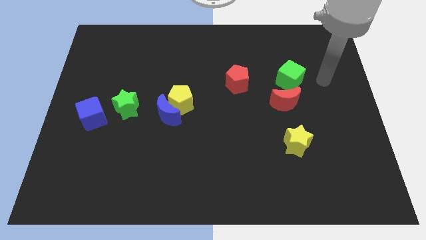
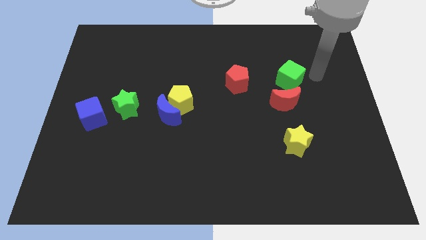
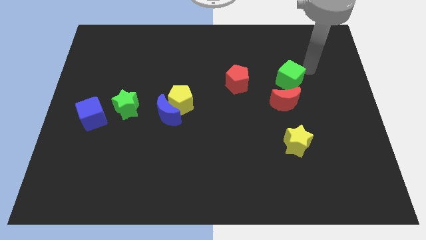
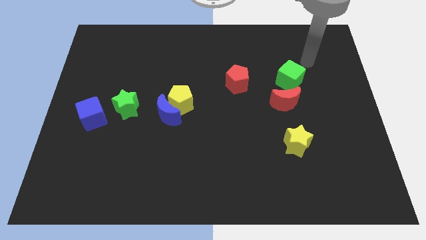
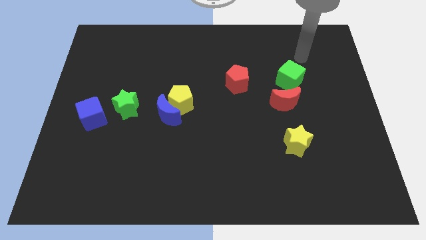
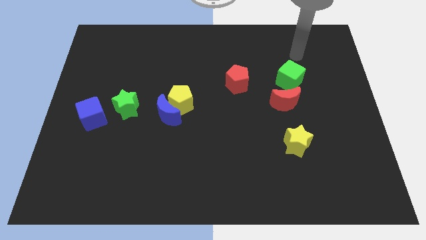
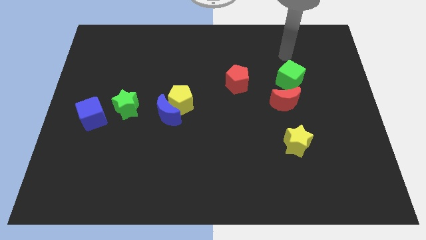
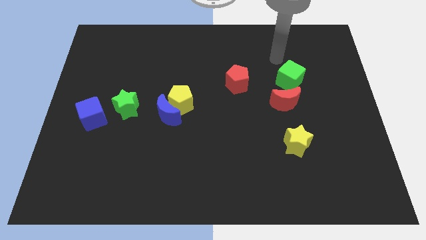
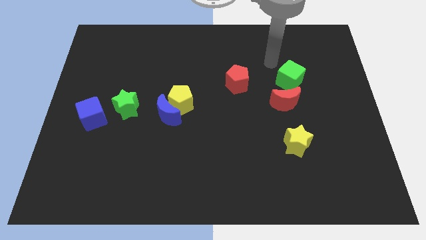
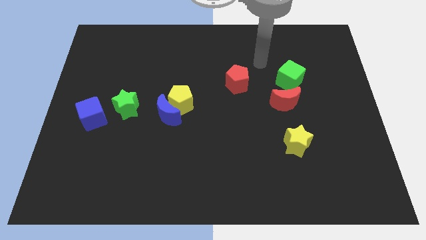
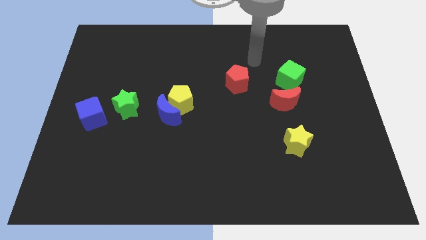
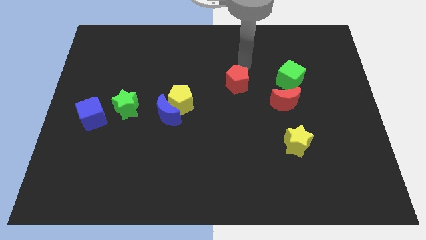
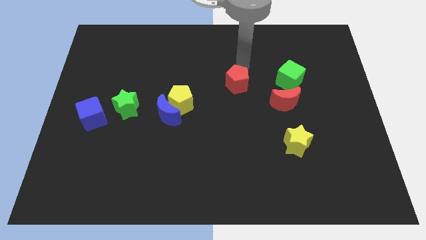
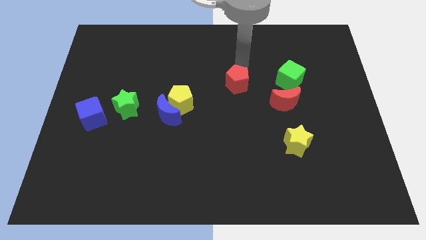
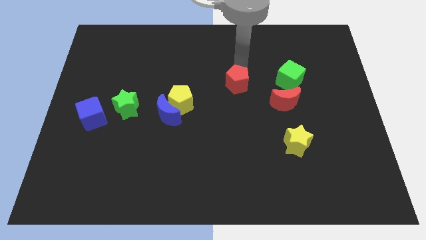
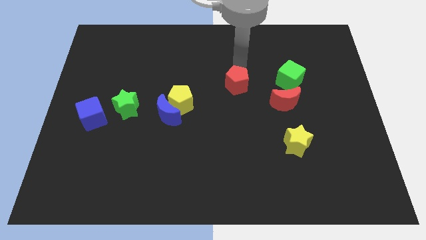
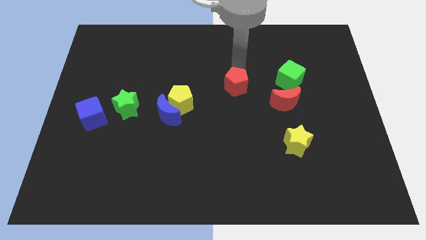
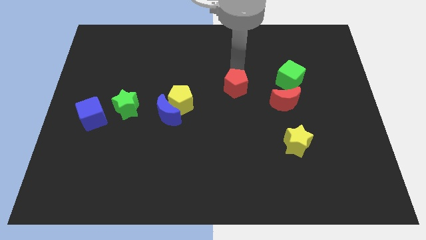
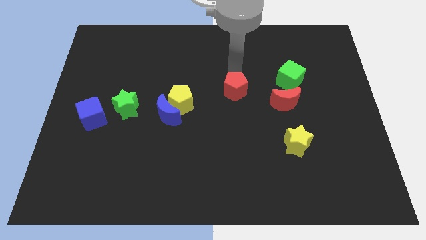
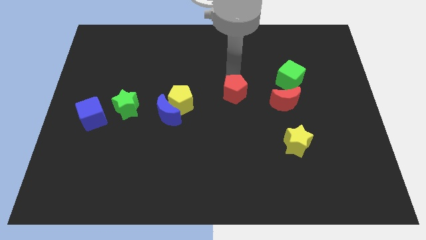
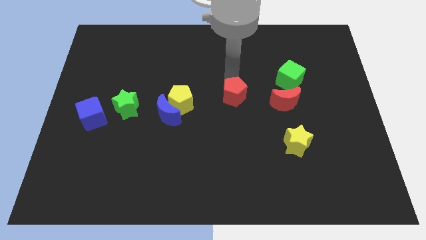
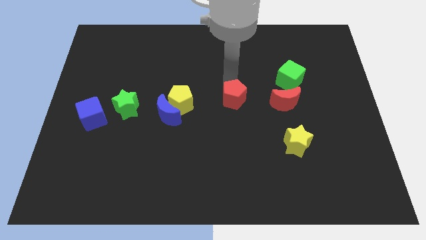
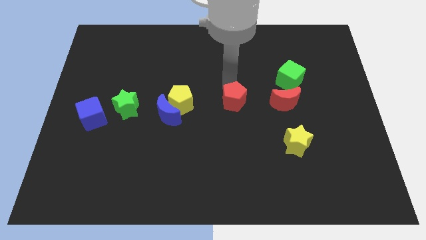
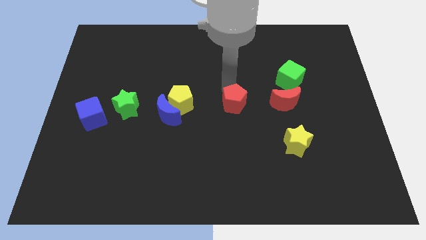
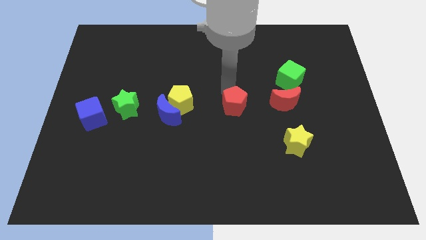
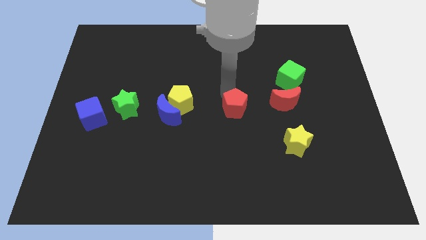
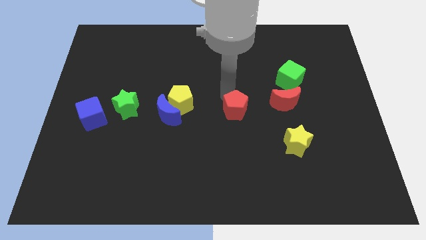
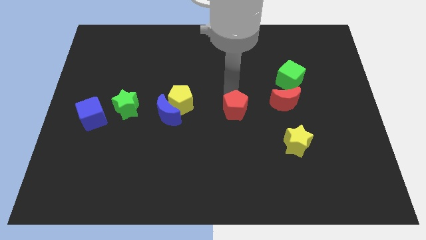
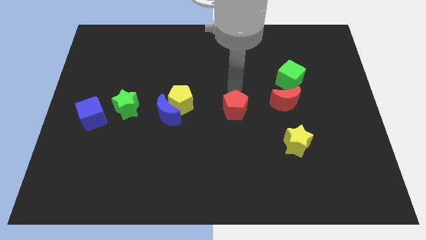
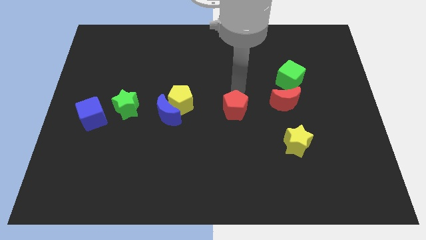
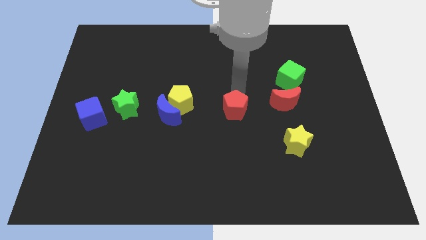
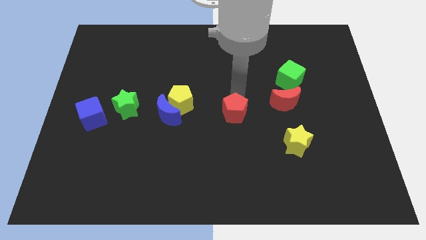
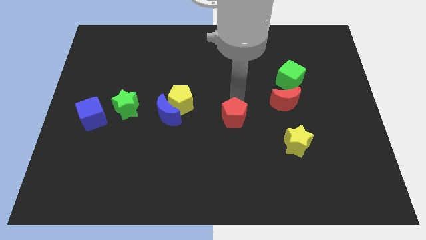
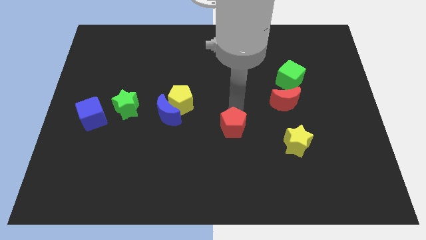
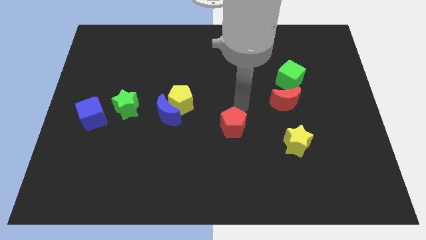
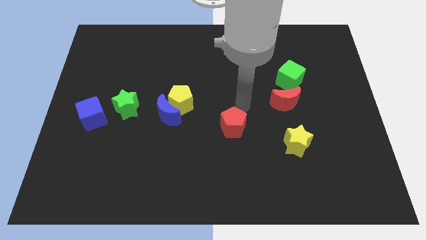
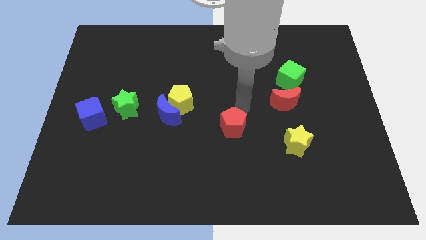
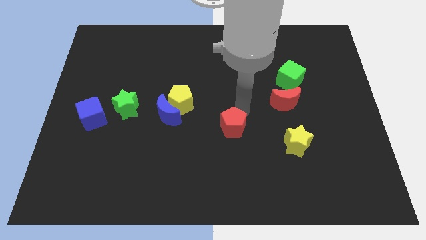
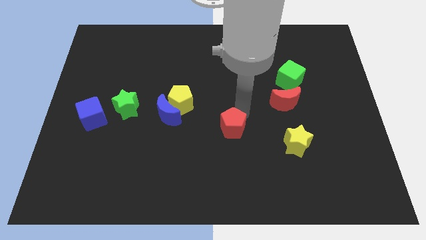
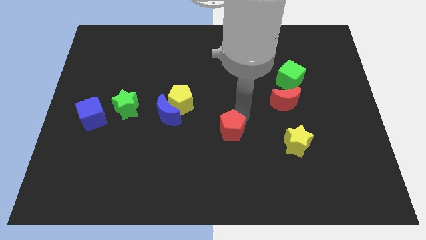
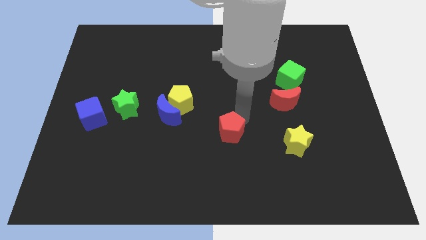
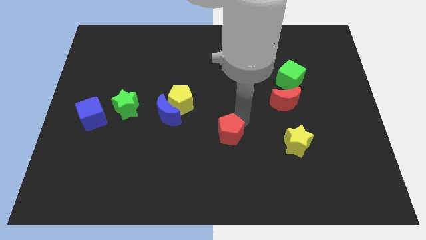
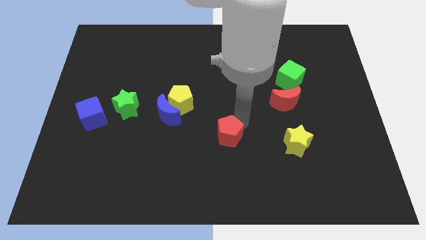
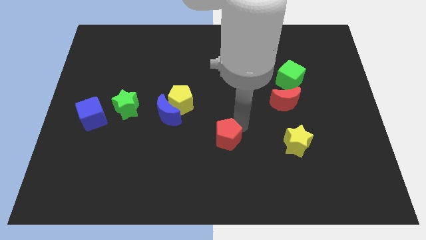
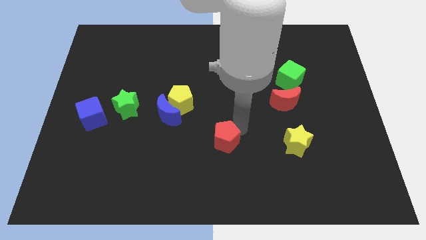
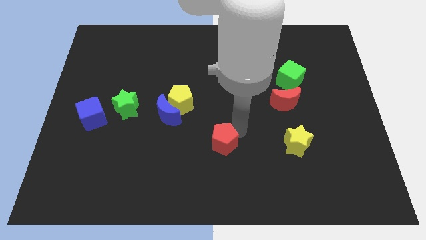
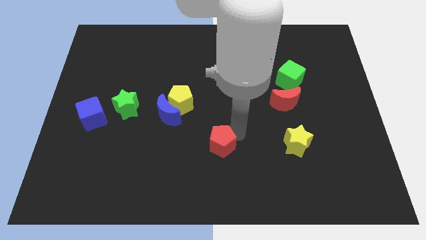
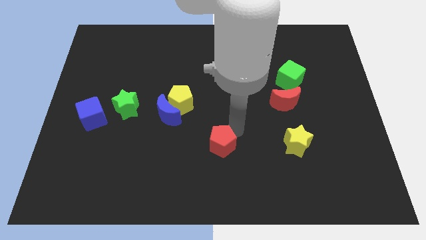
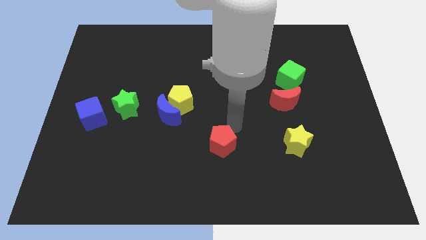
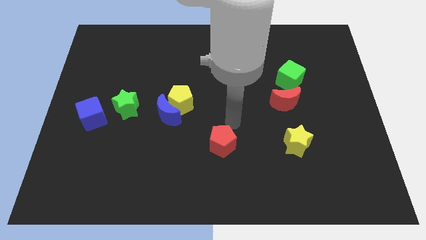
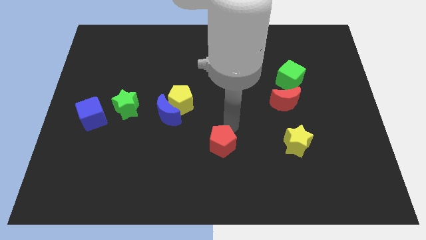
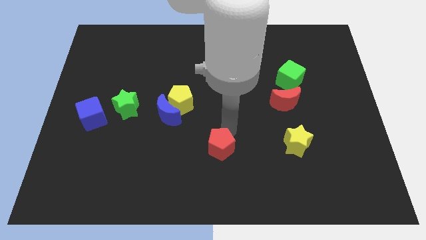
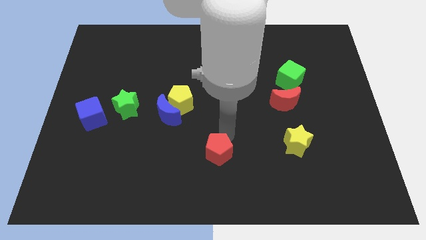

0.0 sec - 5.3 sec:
put the red pentagon to the bottom

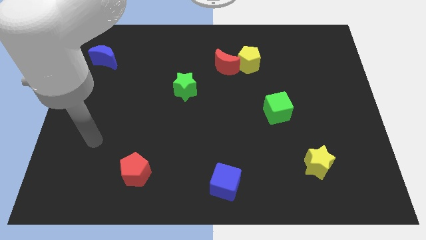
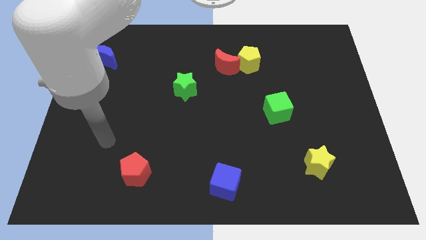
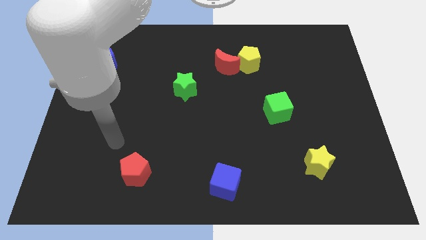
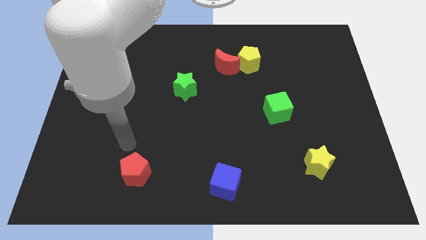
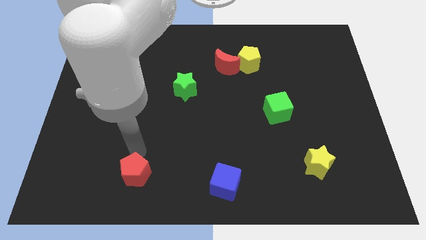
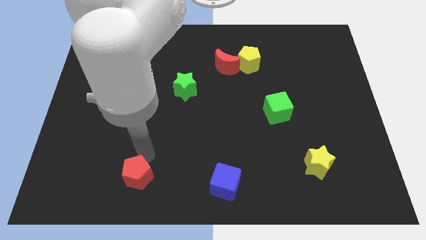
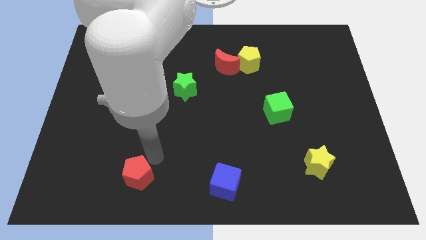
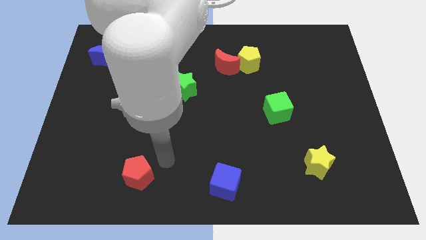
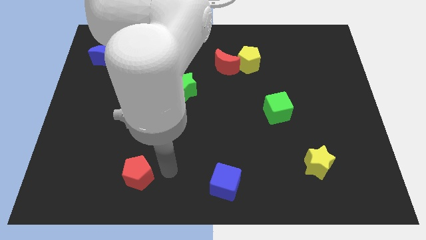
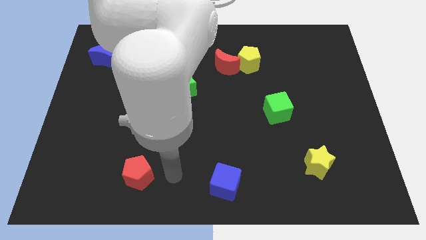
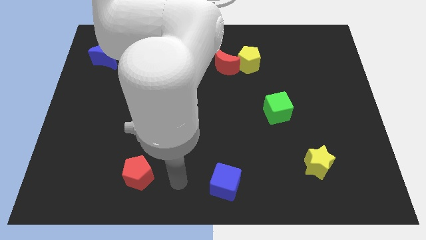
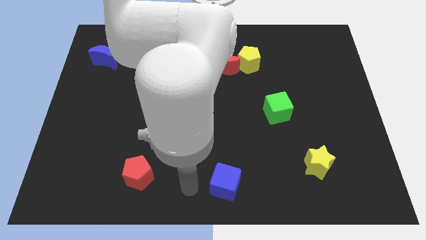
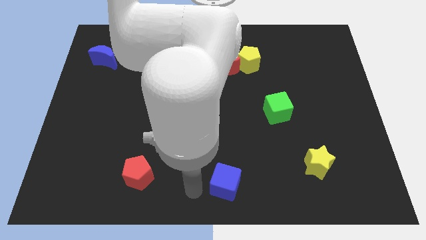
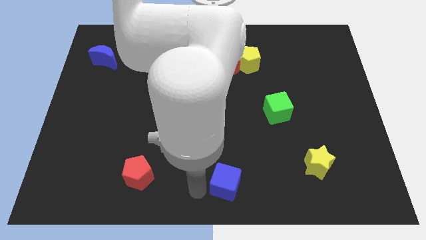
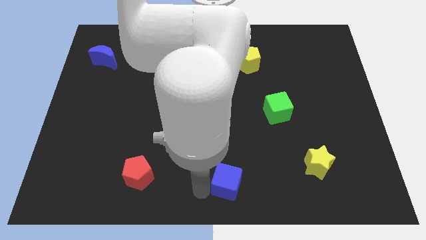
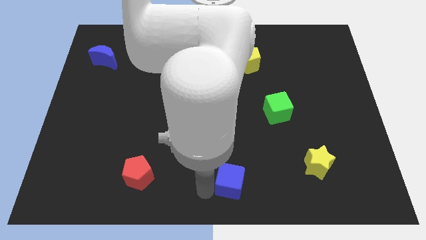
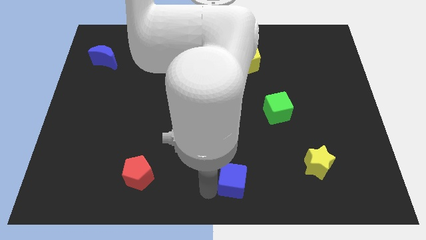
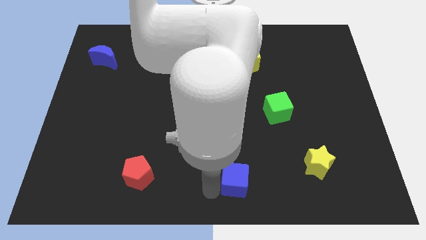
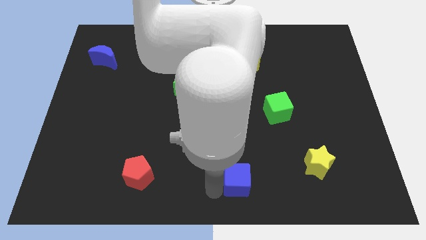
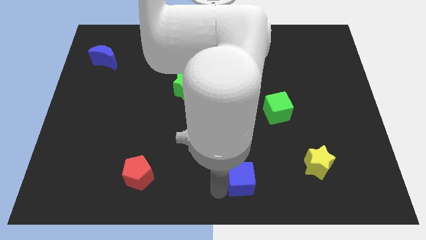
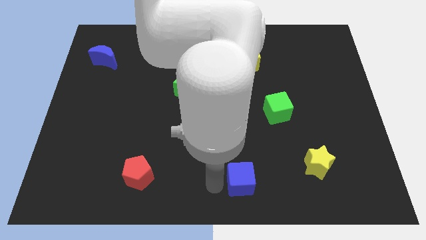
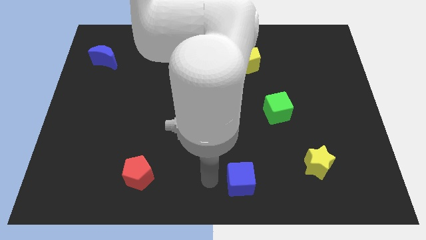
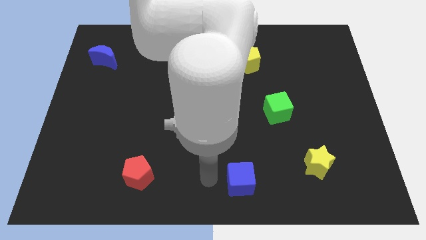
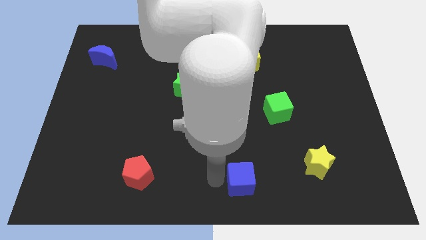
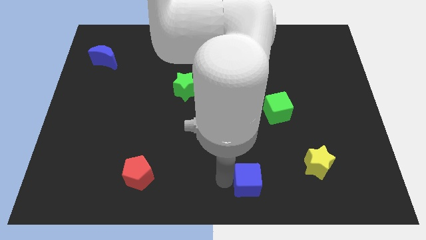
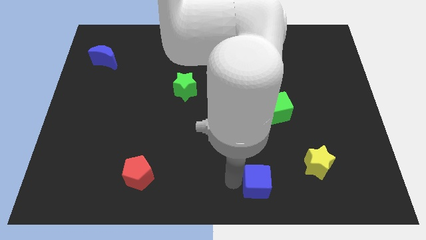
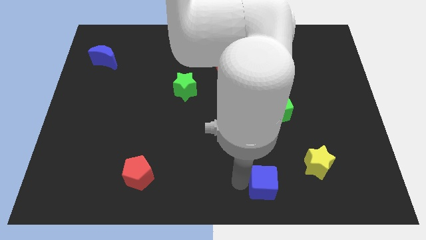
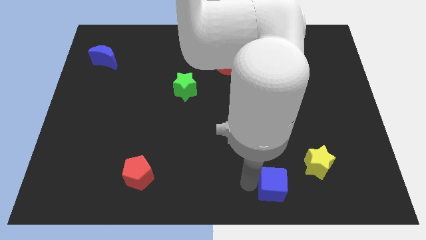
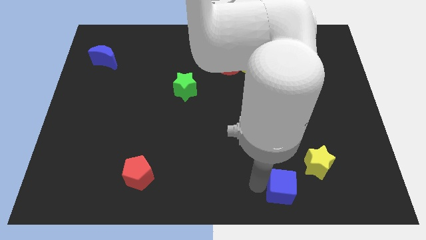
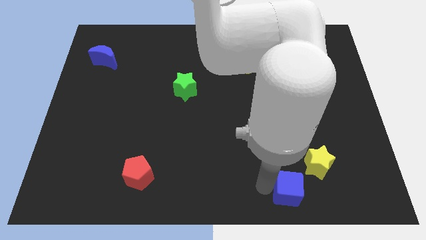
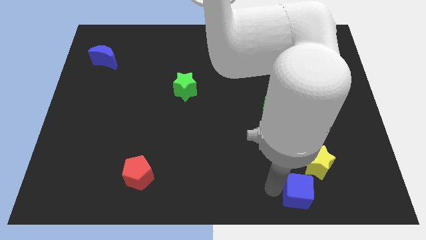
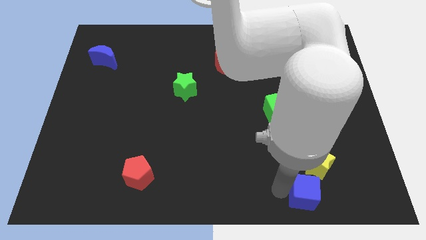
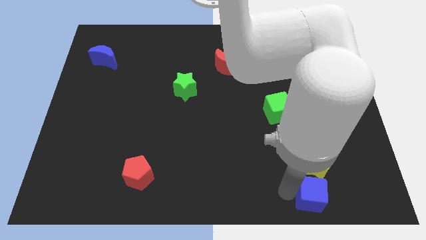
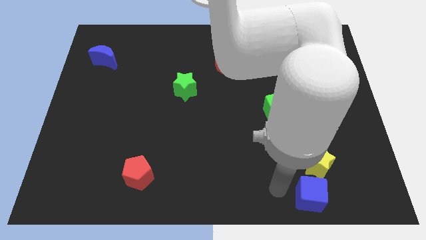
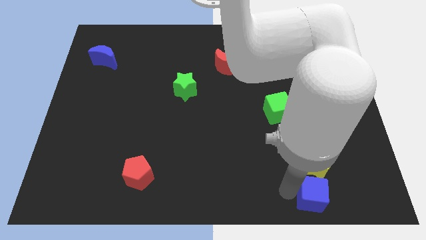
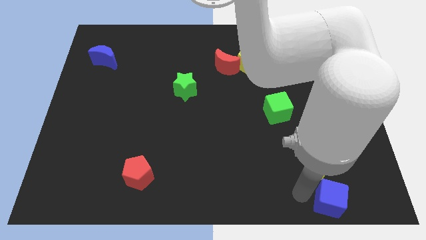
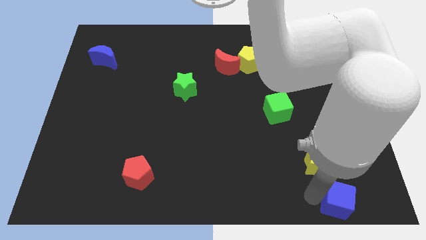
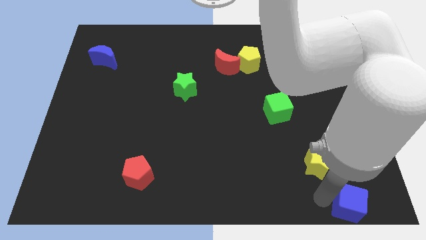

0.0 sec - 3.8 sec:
slide the blue cube to the bottom right
